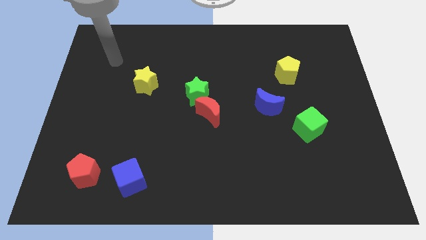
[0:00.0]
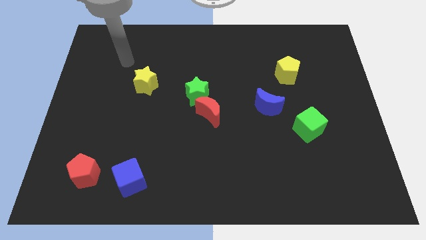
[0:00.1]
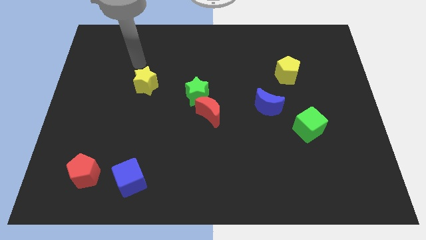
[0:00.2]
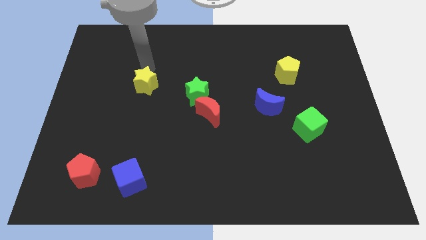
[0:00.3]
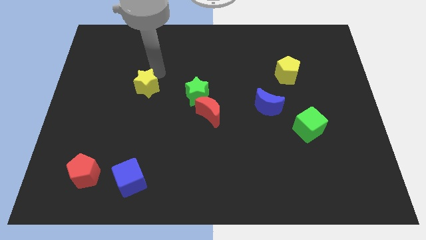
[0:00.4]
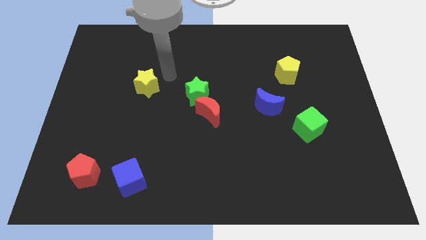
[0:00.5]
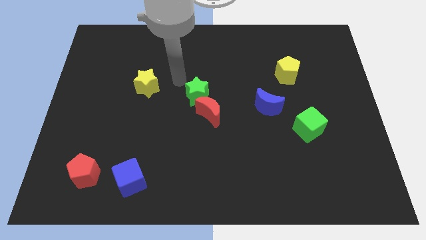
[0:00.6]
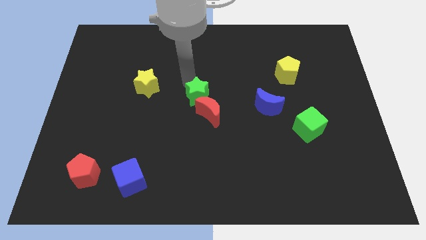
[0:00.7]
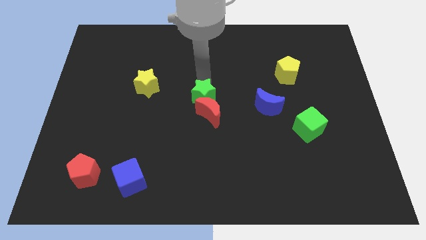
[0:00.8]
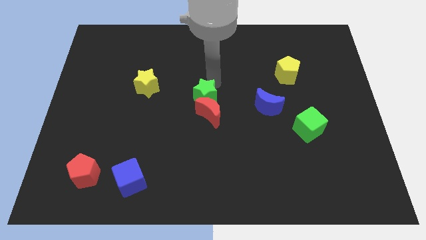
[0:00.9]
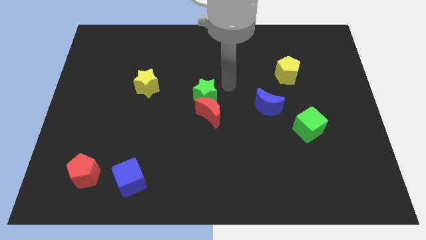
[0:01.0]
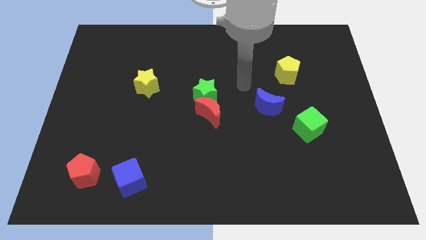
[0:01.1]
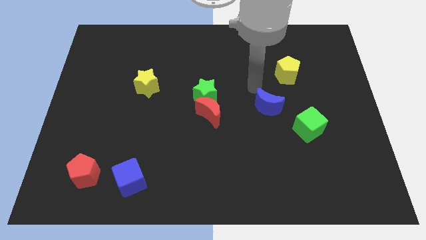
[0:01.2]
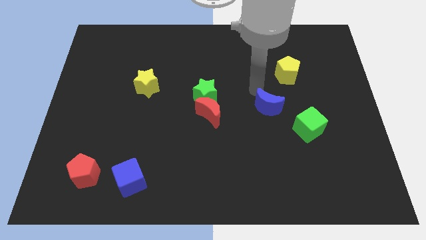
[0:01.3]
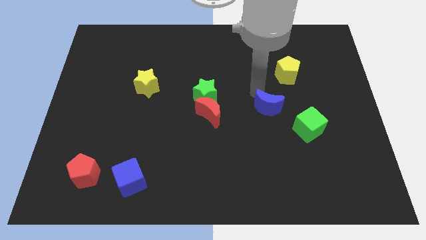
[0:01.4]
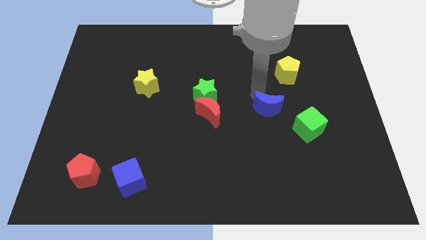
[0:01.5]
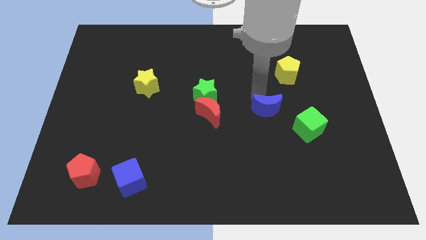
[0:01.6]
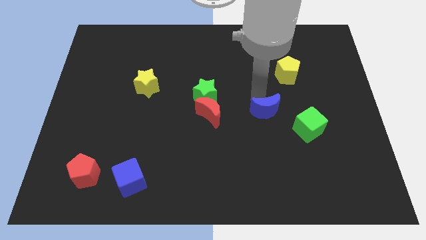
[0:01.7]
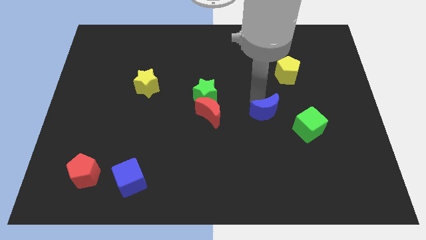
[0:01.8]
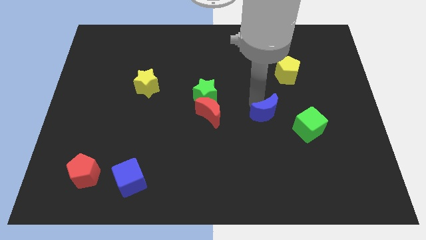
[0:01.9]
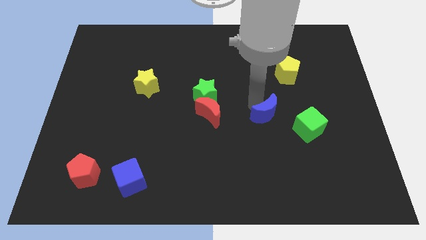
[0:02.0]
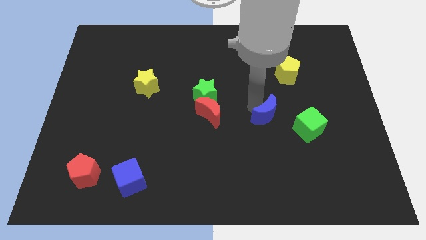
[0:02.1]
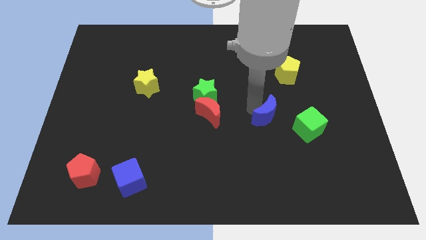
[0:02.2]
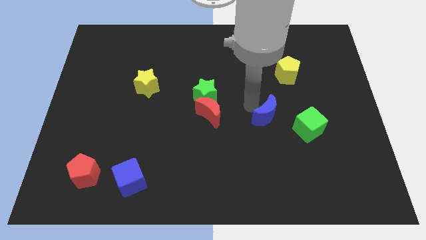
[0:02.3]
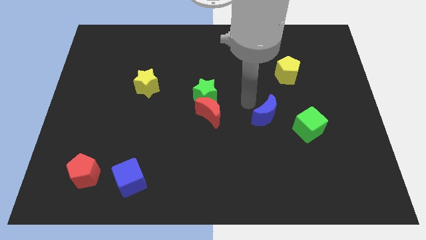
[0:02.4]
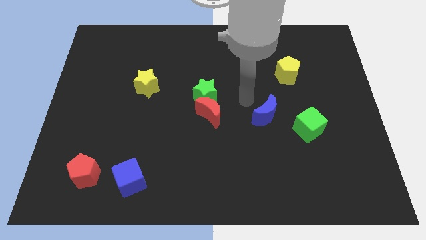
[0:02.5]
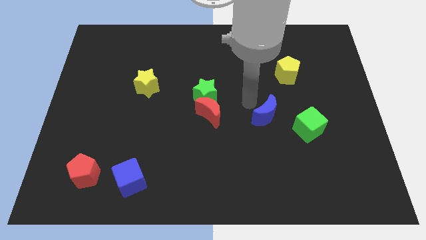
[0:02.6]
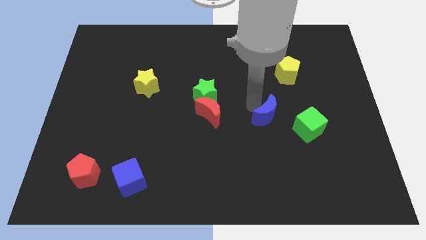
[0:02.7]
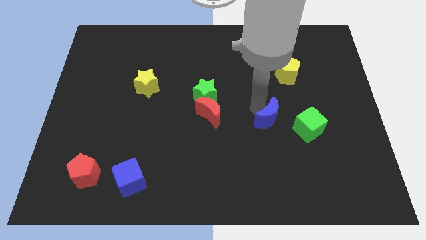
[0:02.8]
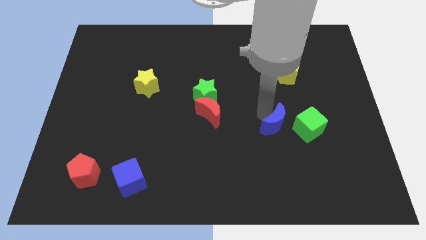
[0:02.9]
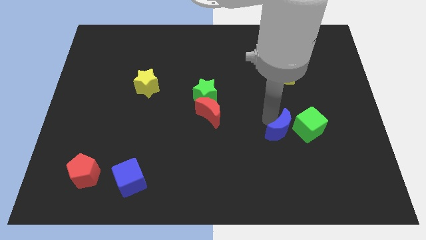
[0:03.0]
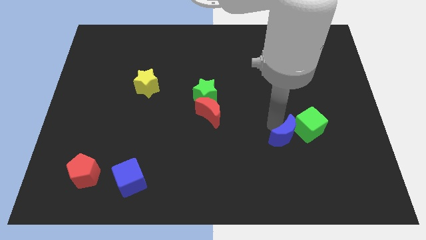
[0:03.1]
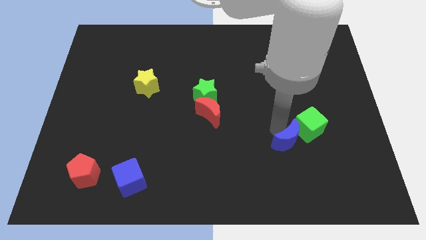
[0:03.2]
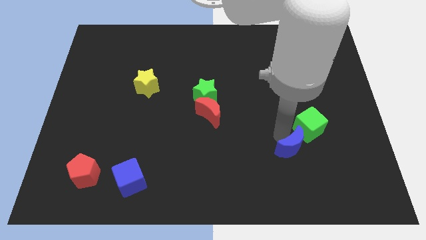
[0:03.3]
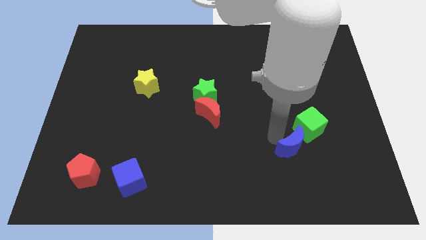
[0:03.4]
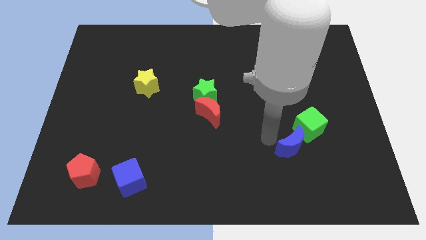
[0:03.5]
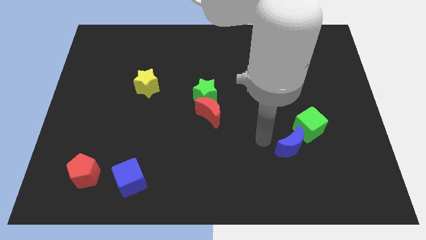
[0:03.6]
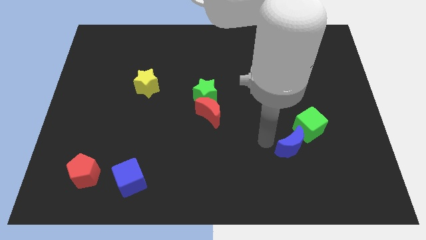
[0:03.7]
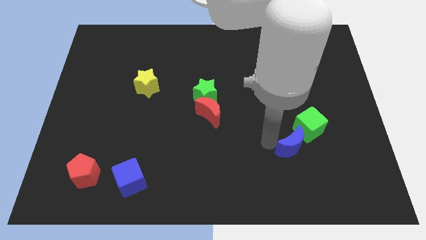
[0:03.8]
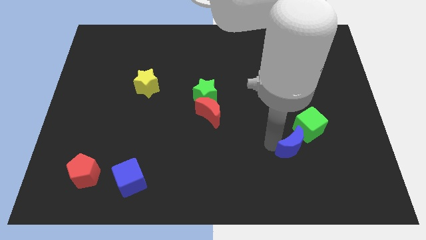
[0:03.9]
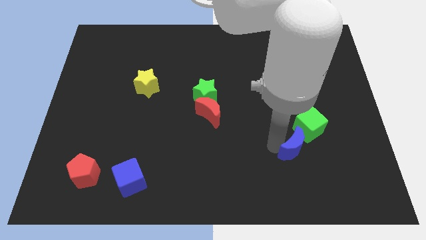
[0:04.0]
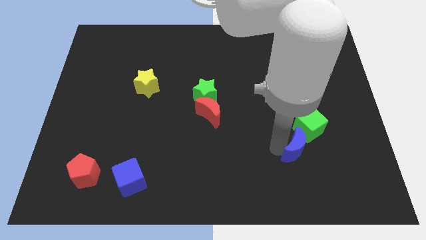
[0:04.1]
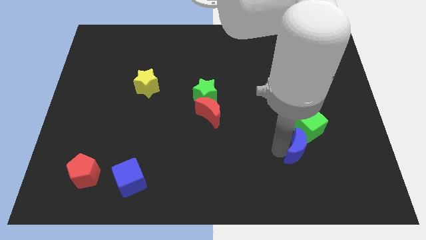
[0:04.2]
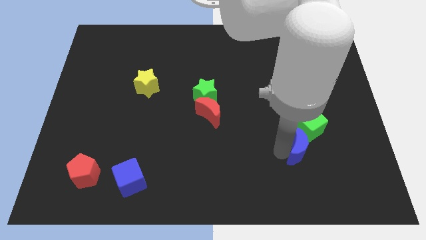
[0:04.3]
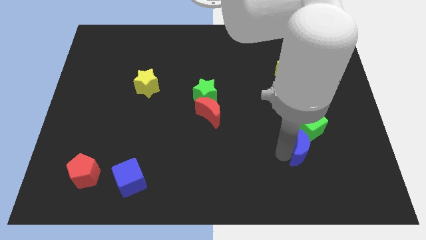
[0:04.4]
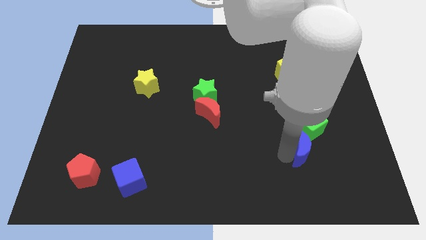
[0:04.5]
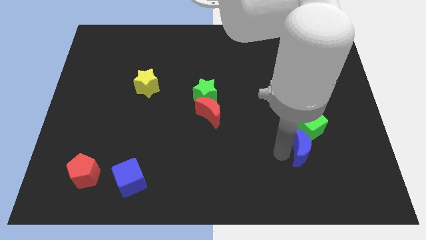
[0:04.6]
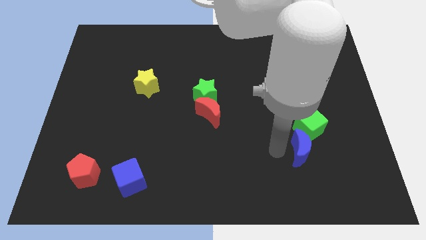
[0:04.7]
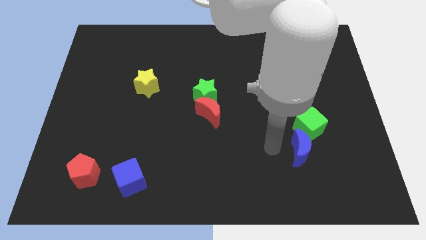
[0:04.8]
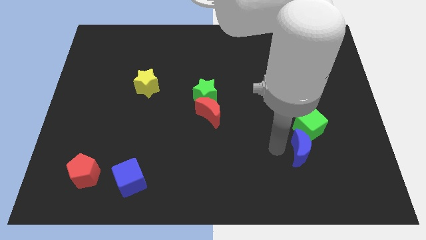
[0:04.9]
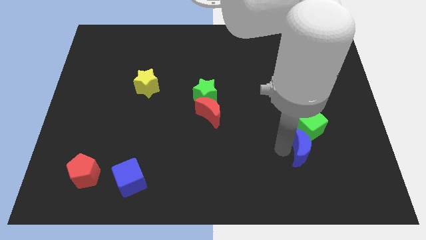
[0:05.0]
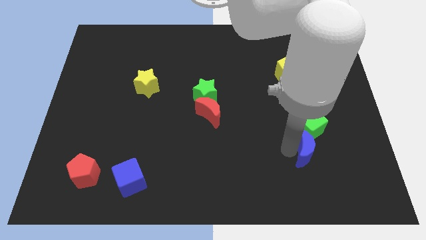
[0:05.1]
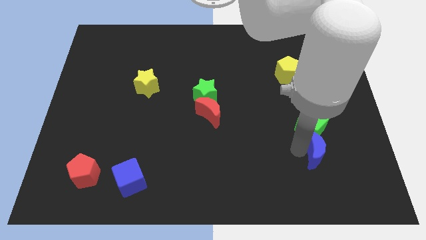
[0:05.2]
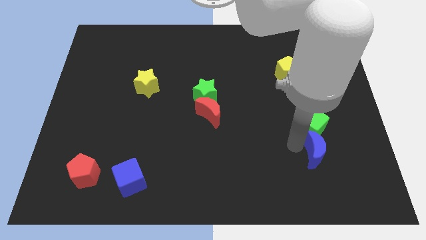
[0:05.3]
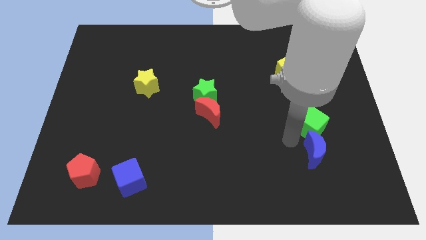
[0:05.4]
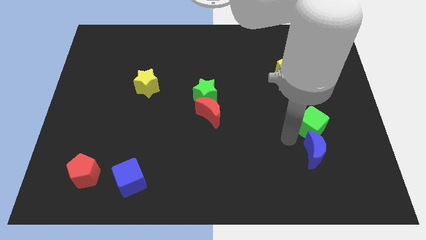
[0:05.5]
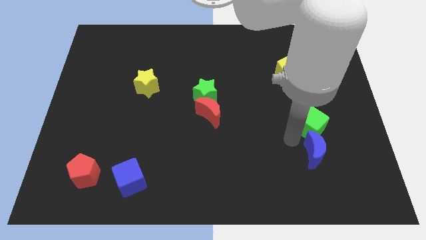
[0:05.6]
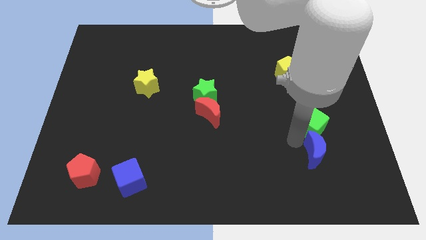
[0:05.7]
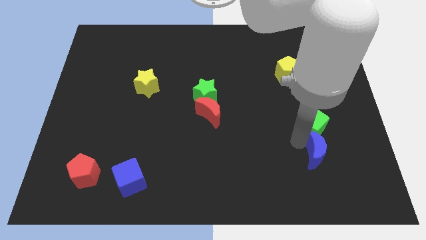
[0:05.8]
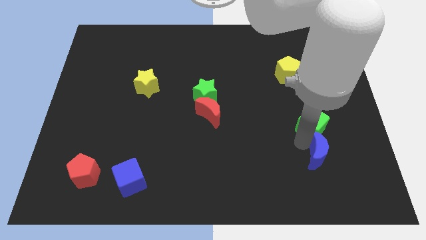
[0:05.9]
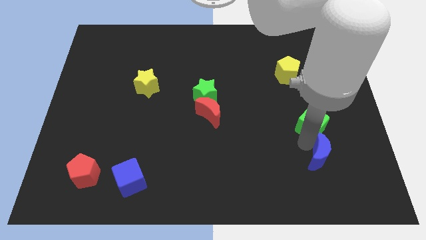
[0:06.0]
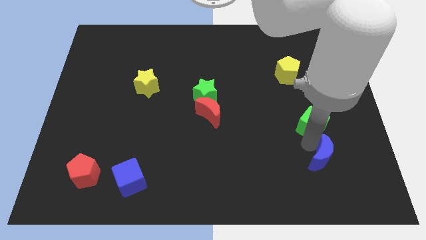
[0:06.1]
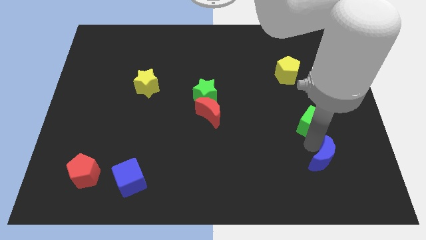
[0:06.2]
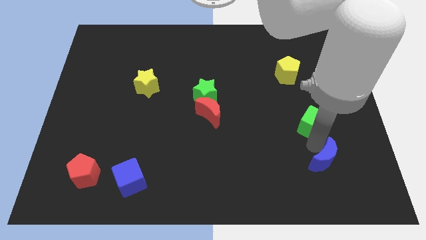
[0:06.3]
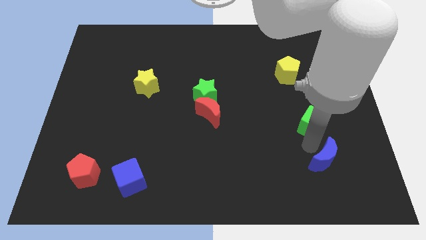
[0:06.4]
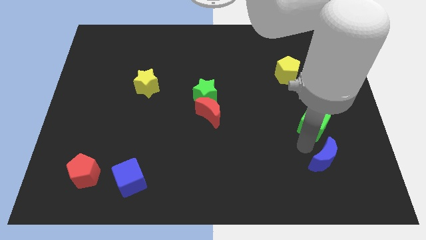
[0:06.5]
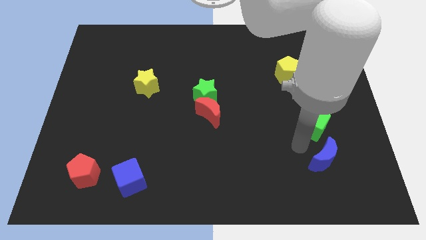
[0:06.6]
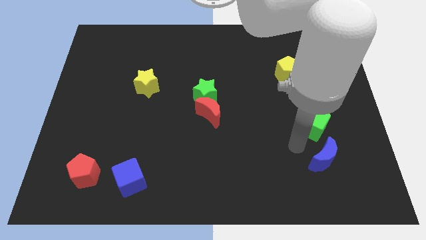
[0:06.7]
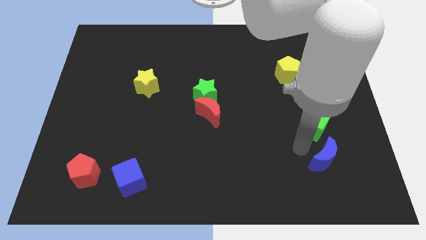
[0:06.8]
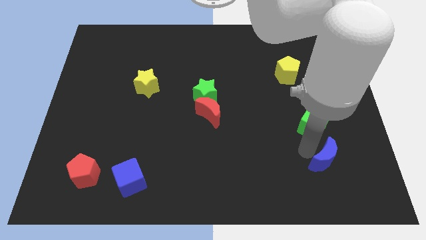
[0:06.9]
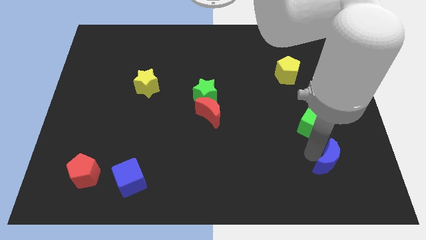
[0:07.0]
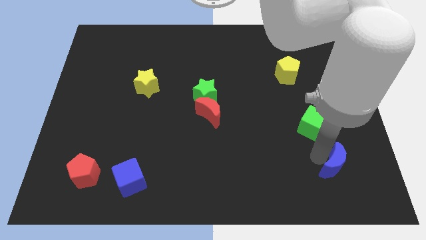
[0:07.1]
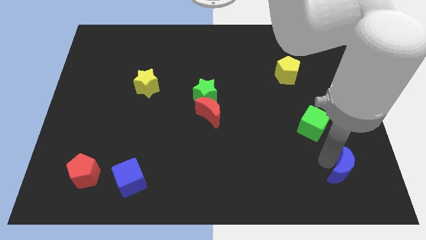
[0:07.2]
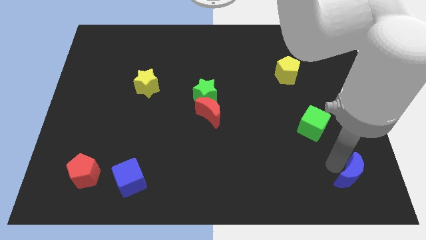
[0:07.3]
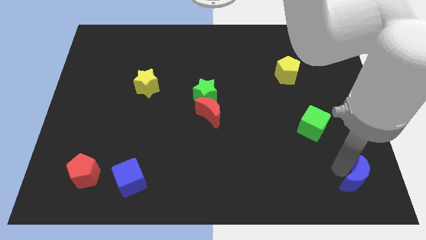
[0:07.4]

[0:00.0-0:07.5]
slide the blue moon to the bottom right corner

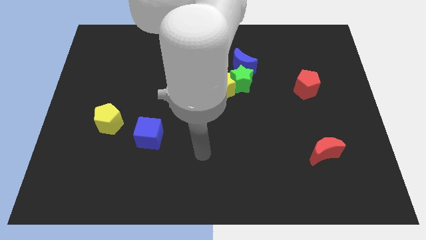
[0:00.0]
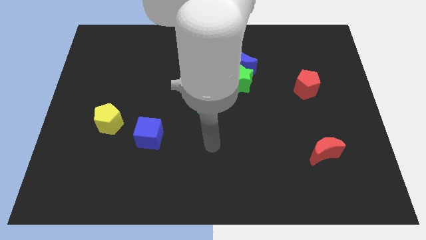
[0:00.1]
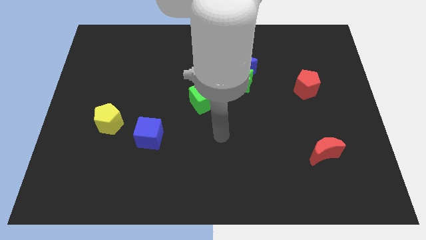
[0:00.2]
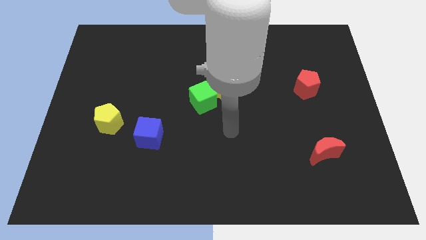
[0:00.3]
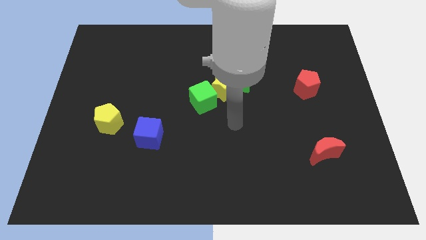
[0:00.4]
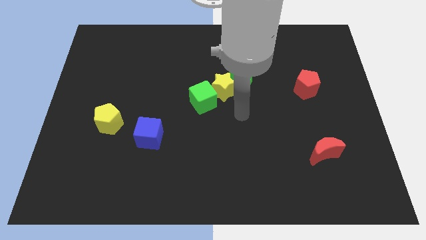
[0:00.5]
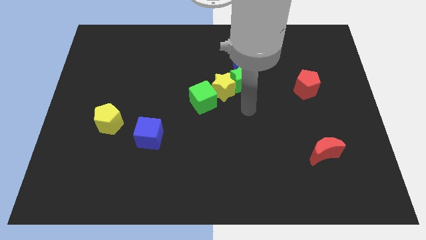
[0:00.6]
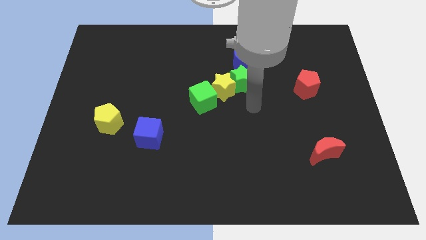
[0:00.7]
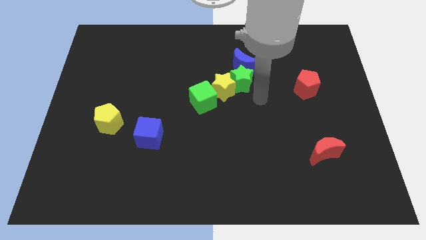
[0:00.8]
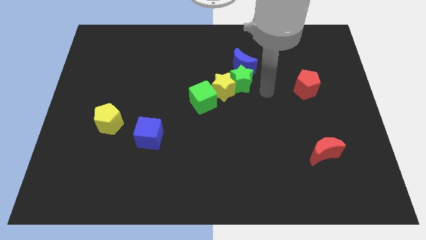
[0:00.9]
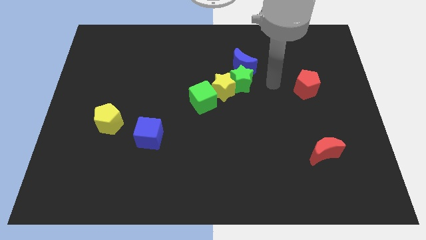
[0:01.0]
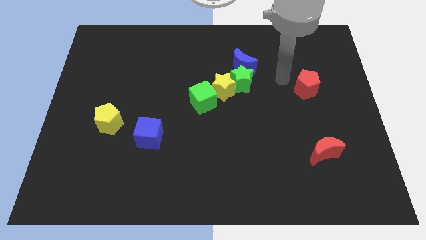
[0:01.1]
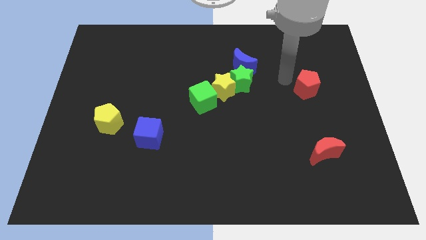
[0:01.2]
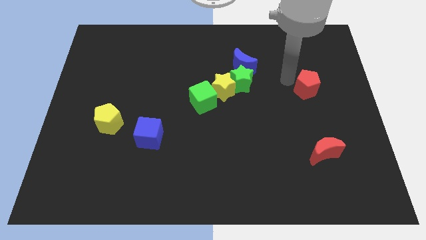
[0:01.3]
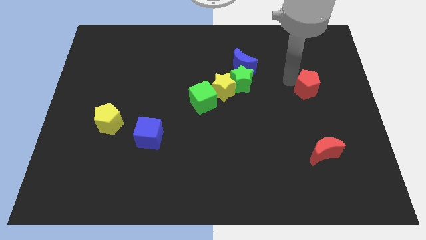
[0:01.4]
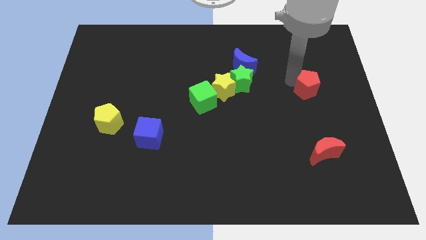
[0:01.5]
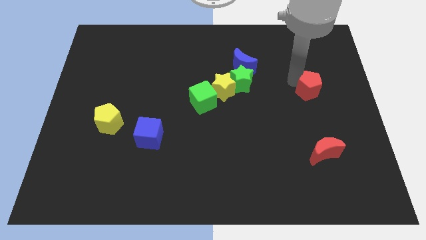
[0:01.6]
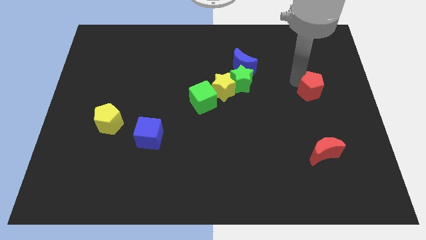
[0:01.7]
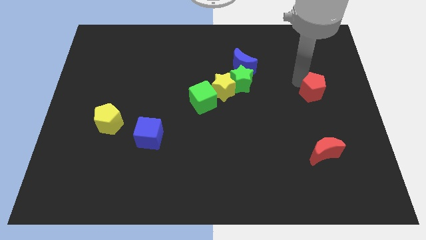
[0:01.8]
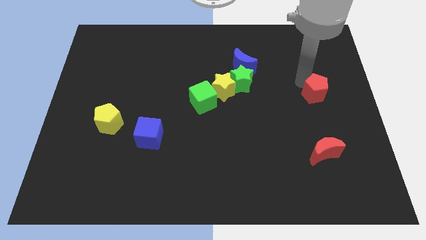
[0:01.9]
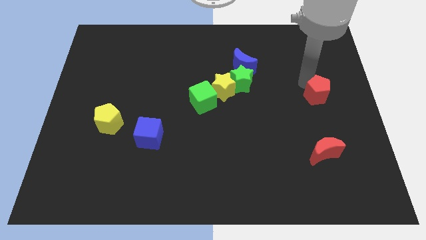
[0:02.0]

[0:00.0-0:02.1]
put the red pentagon to the center right
